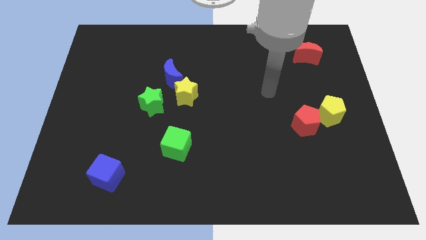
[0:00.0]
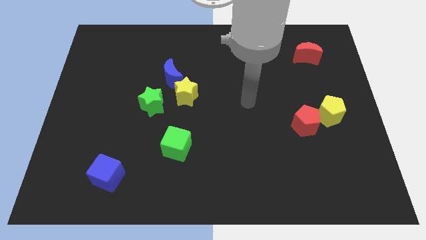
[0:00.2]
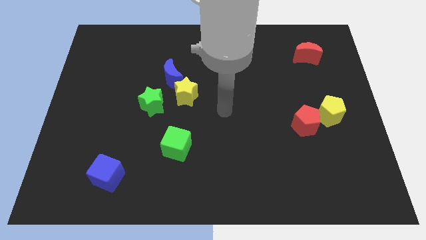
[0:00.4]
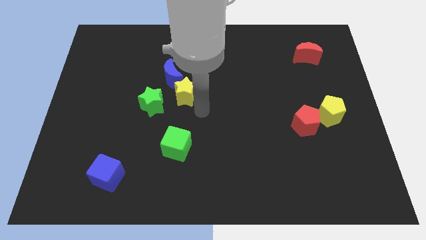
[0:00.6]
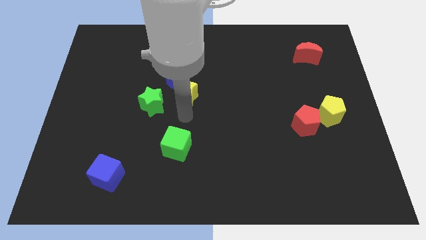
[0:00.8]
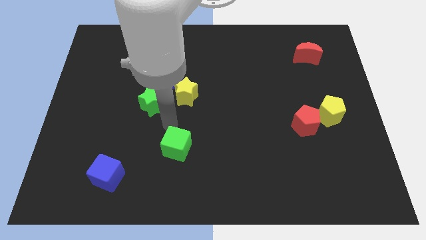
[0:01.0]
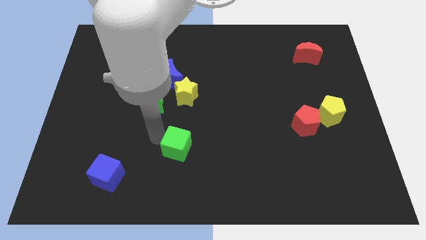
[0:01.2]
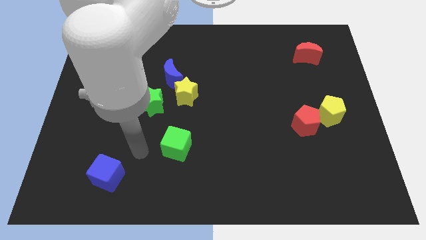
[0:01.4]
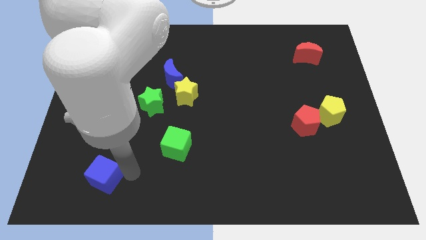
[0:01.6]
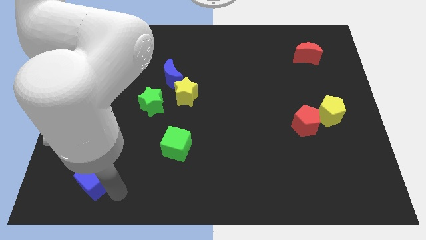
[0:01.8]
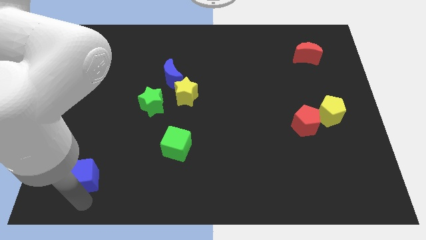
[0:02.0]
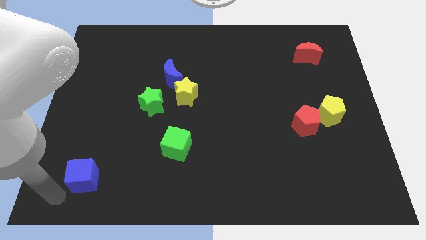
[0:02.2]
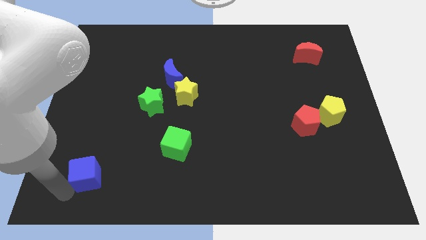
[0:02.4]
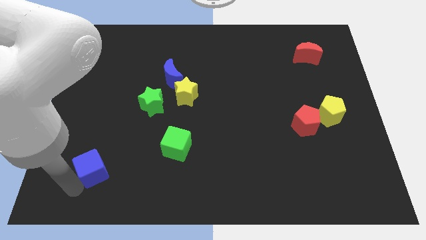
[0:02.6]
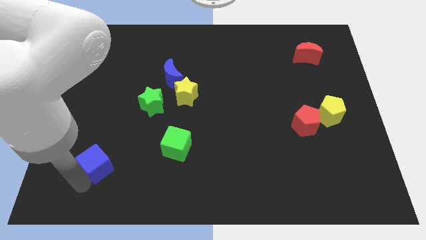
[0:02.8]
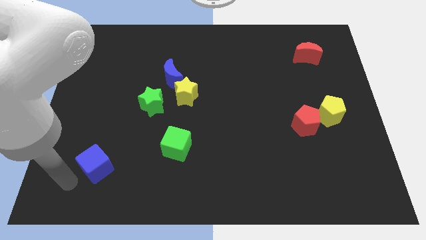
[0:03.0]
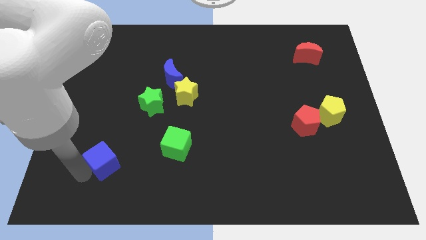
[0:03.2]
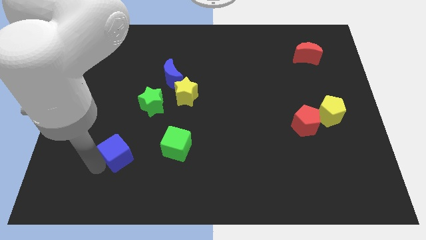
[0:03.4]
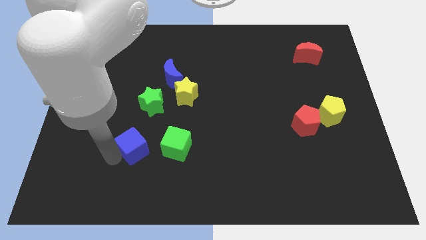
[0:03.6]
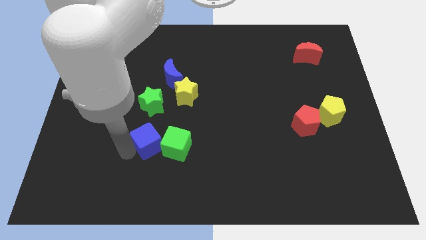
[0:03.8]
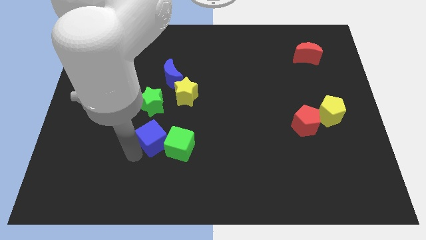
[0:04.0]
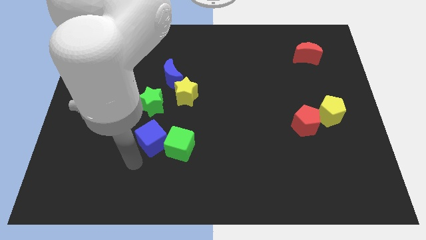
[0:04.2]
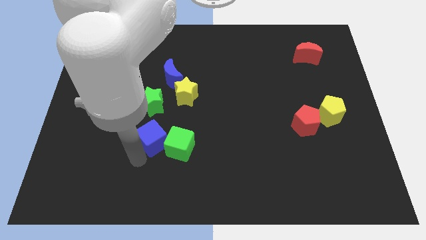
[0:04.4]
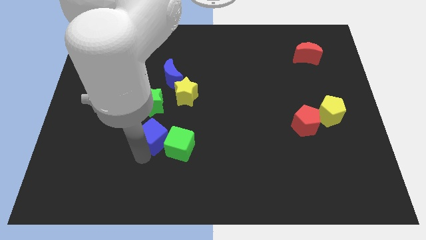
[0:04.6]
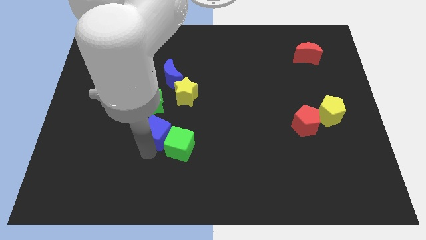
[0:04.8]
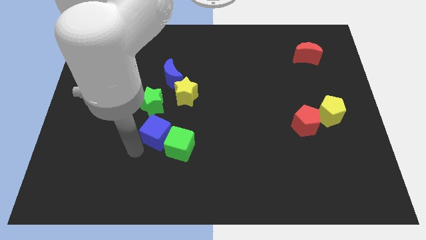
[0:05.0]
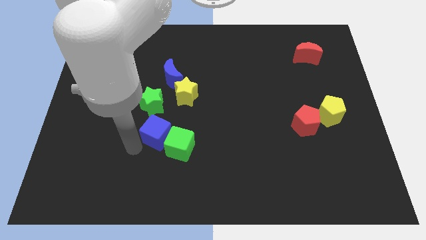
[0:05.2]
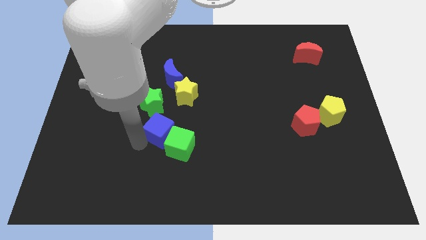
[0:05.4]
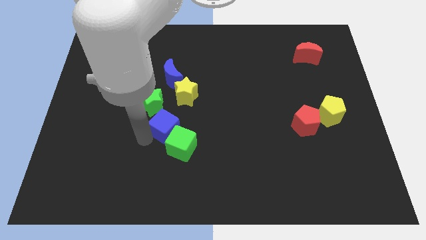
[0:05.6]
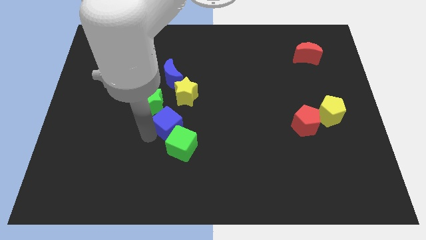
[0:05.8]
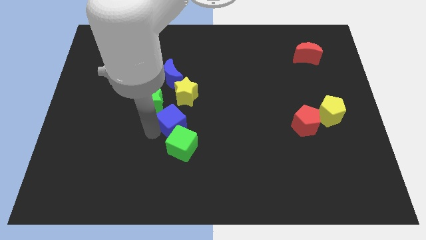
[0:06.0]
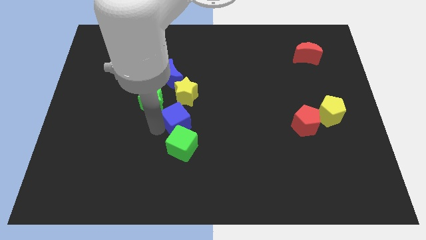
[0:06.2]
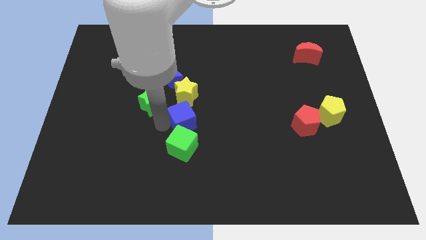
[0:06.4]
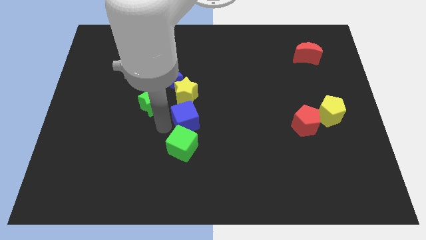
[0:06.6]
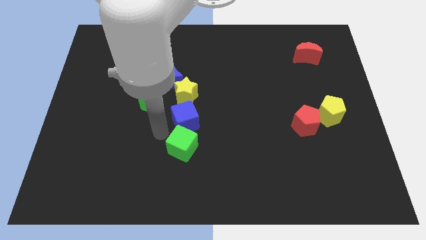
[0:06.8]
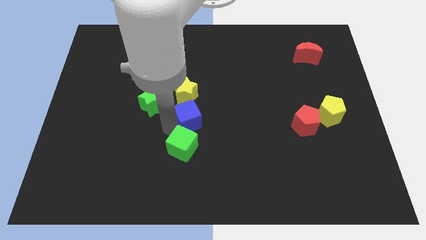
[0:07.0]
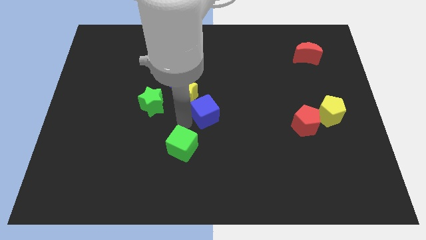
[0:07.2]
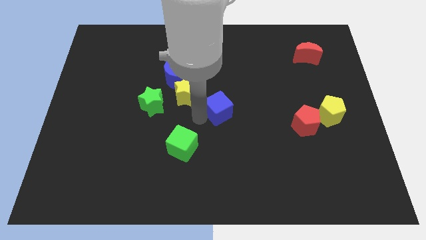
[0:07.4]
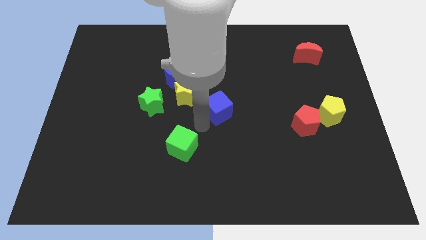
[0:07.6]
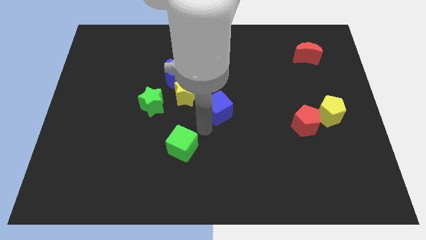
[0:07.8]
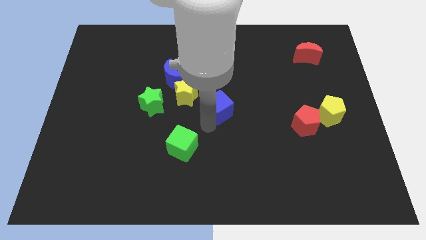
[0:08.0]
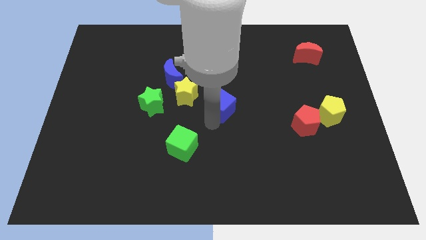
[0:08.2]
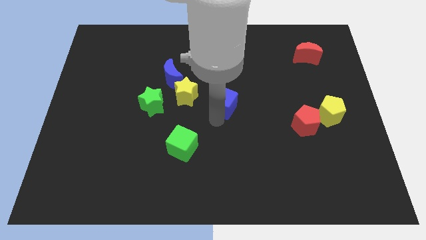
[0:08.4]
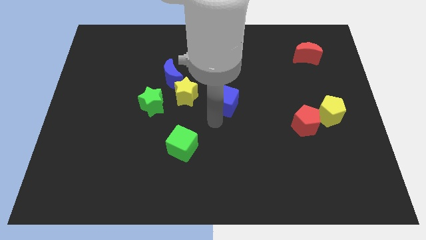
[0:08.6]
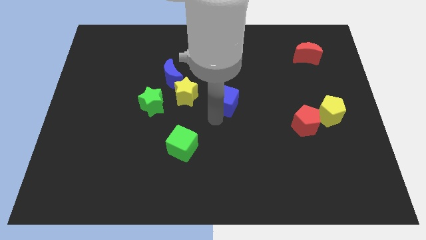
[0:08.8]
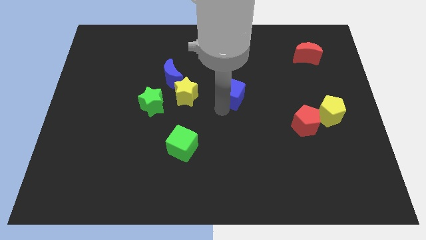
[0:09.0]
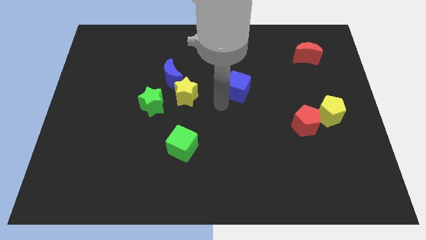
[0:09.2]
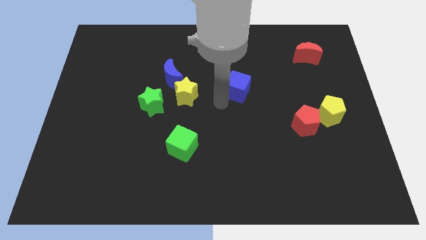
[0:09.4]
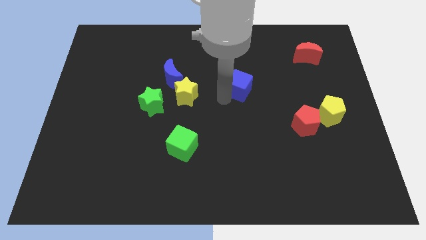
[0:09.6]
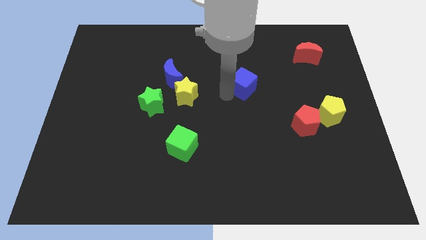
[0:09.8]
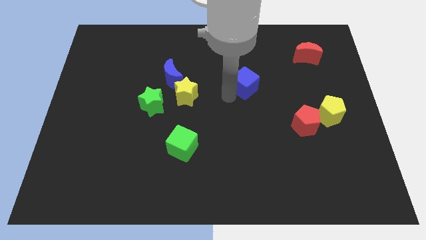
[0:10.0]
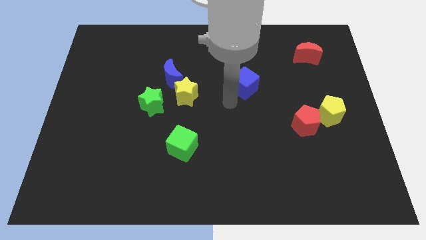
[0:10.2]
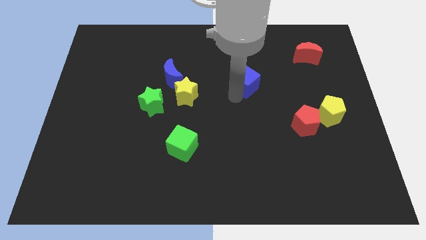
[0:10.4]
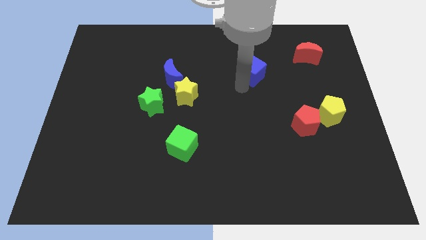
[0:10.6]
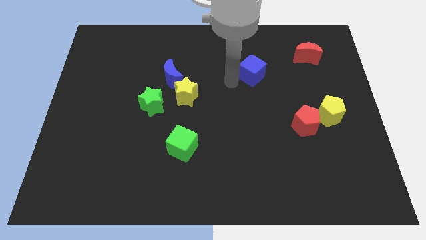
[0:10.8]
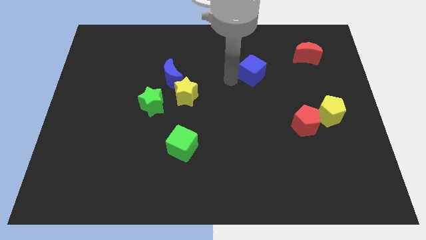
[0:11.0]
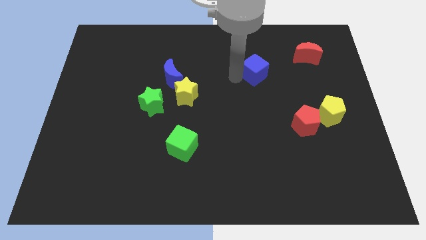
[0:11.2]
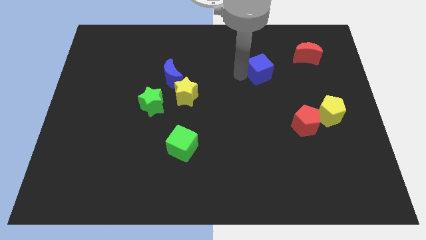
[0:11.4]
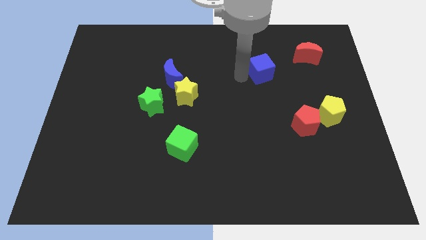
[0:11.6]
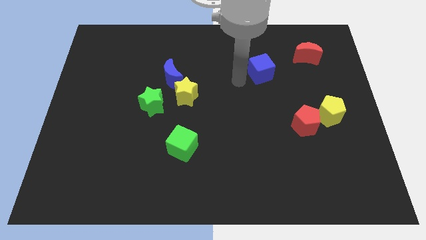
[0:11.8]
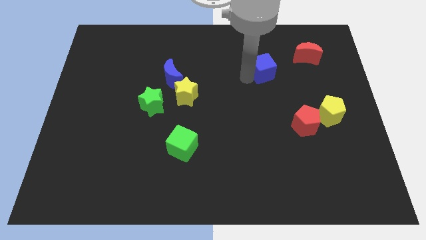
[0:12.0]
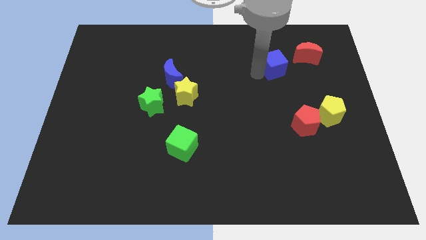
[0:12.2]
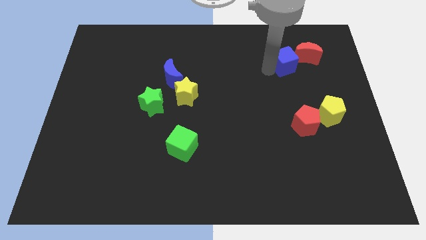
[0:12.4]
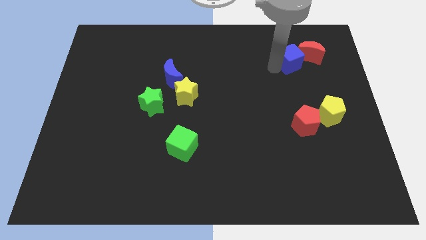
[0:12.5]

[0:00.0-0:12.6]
put the blue cube next to the red moon

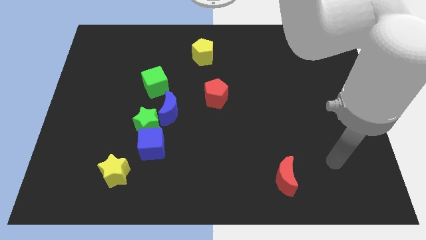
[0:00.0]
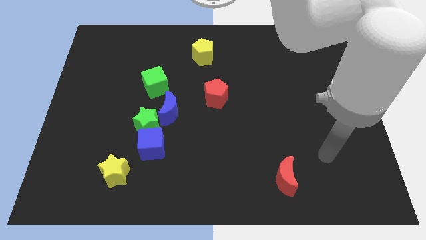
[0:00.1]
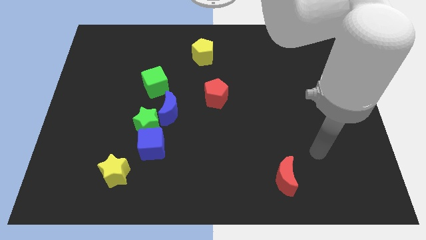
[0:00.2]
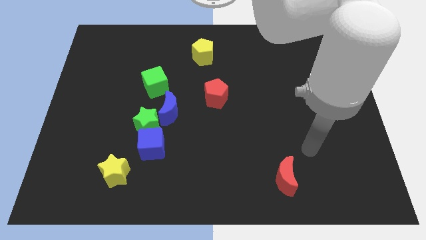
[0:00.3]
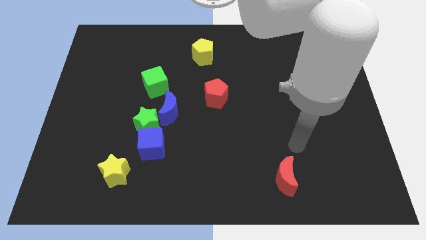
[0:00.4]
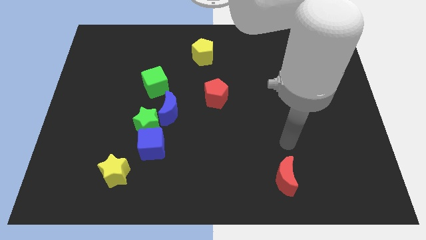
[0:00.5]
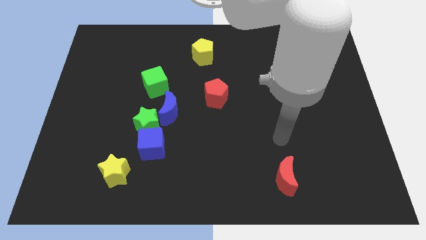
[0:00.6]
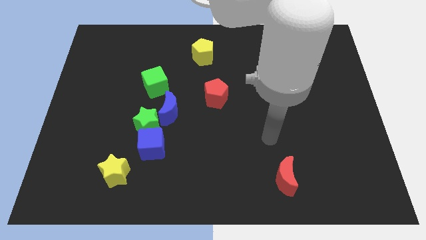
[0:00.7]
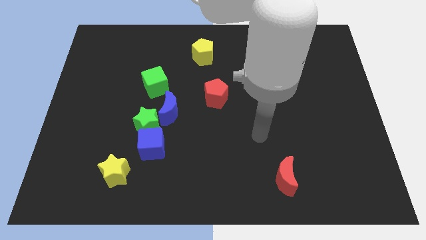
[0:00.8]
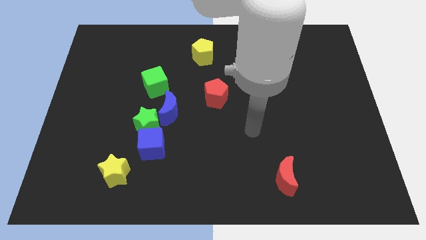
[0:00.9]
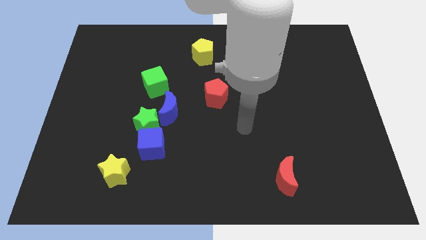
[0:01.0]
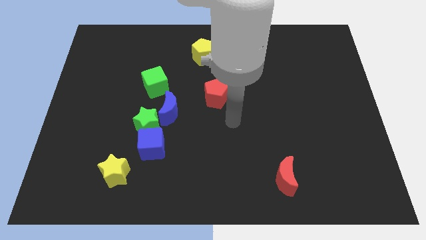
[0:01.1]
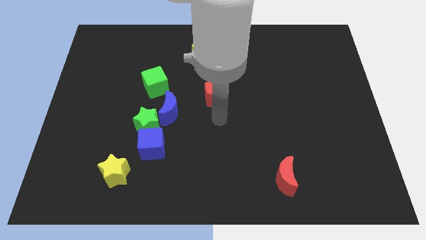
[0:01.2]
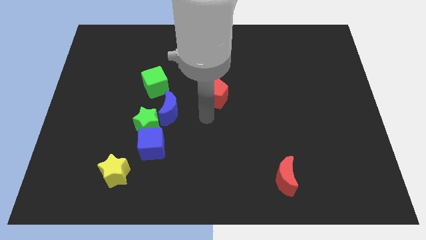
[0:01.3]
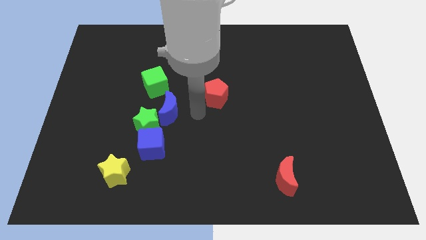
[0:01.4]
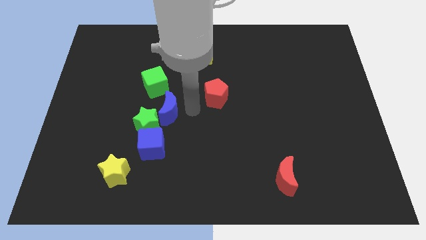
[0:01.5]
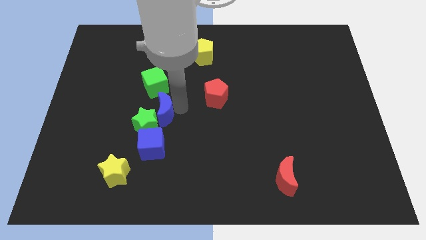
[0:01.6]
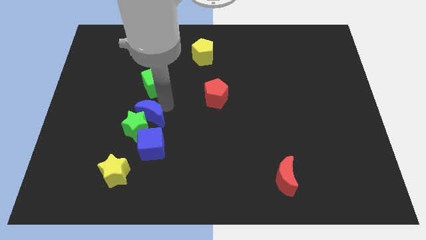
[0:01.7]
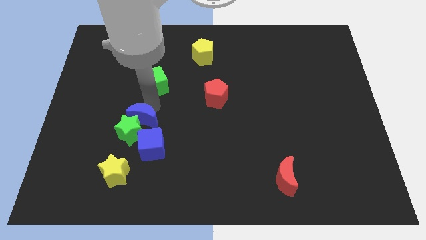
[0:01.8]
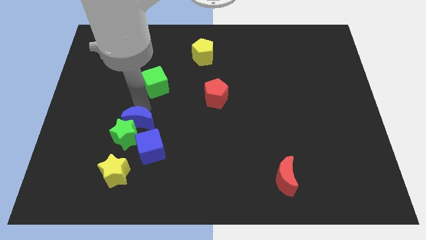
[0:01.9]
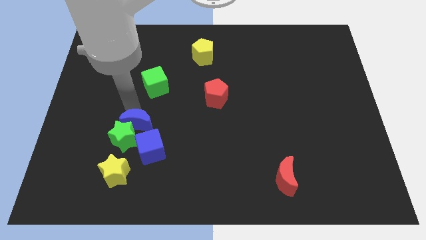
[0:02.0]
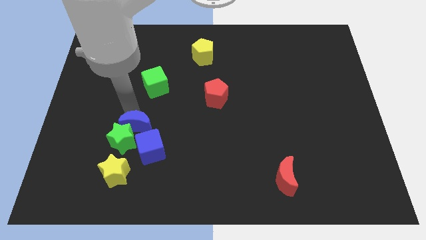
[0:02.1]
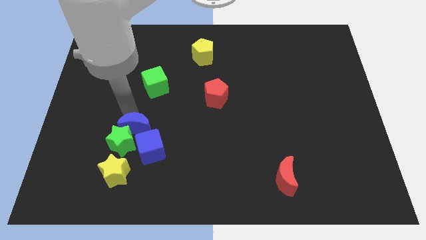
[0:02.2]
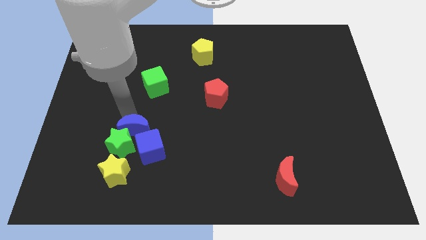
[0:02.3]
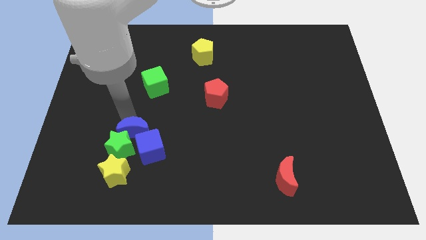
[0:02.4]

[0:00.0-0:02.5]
put the green star to the yellow star
